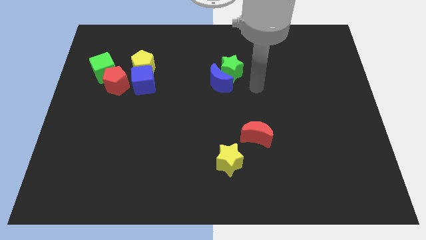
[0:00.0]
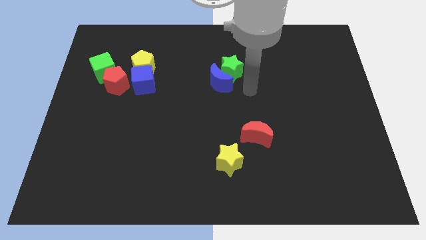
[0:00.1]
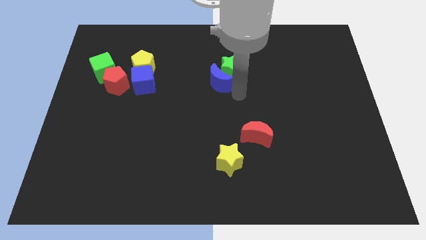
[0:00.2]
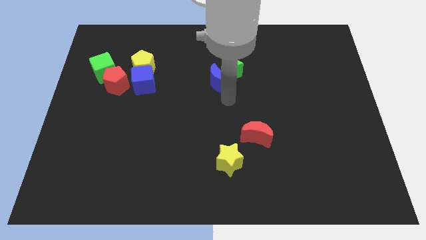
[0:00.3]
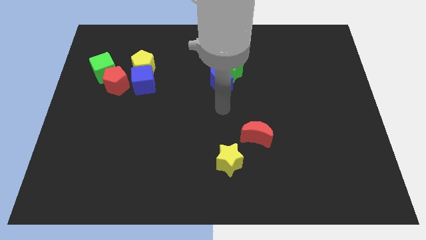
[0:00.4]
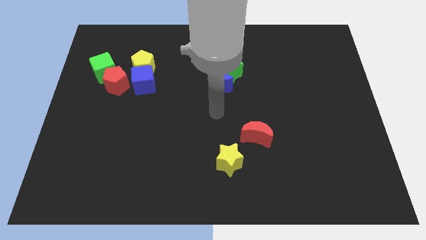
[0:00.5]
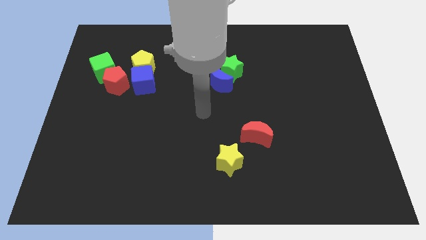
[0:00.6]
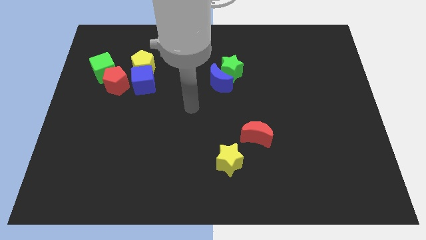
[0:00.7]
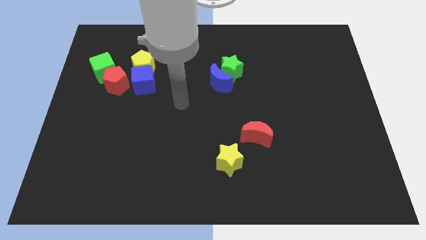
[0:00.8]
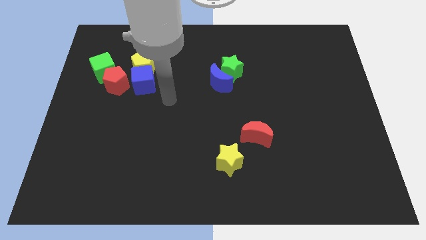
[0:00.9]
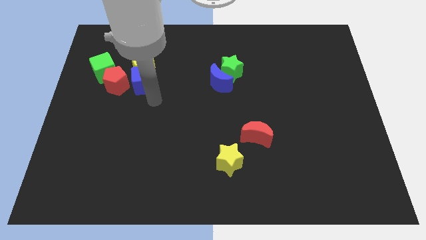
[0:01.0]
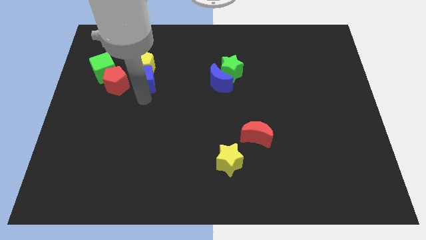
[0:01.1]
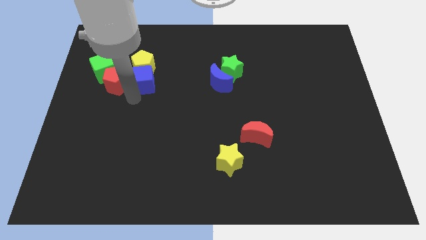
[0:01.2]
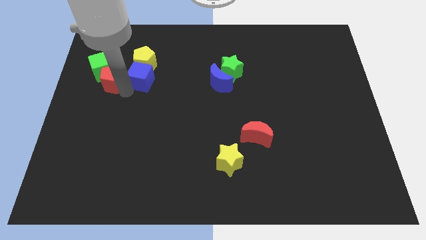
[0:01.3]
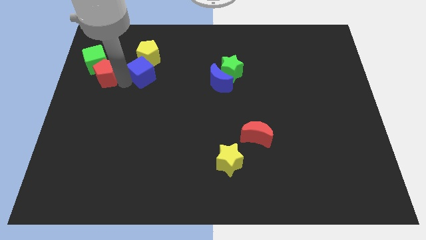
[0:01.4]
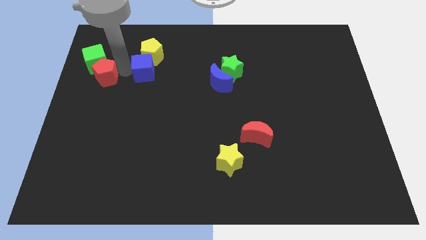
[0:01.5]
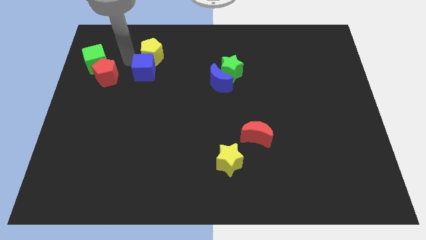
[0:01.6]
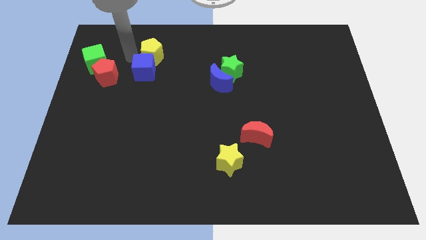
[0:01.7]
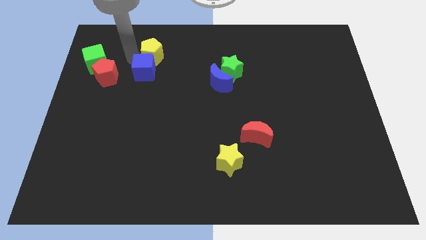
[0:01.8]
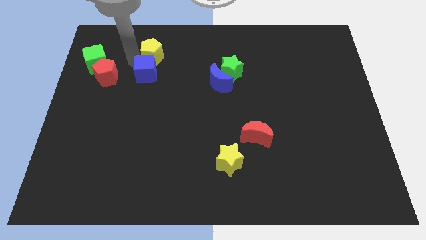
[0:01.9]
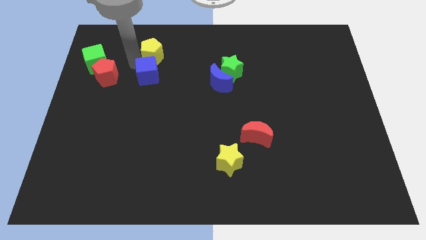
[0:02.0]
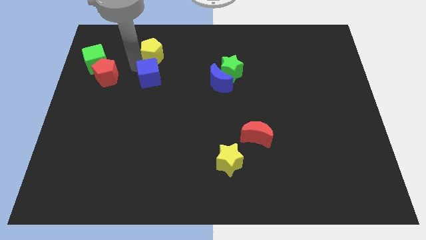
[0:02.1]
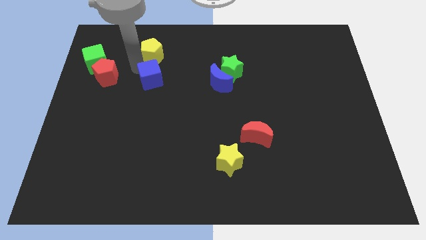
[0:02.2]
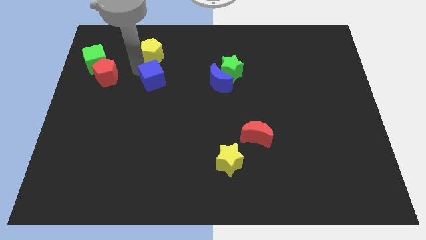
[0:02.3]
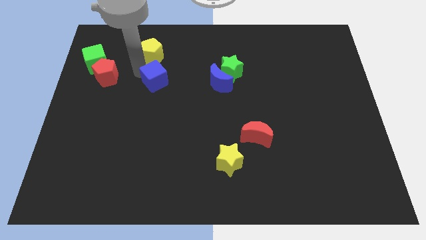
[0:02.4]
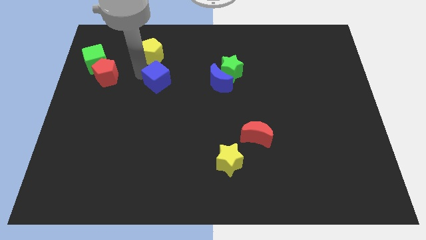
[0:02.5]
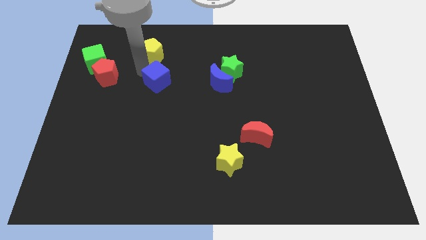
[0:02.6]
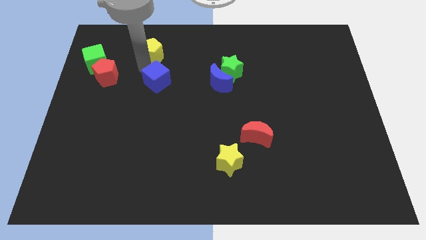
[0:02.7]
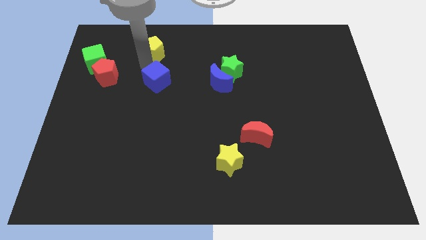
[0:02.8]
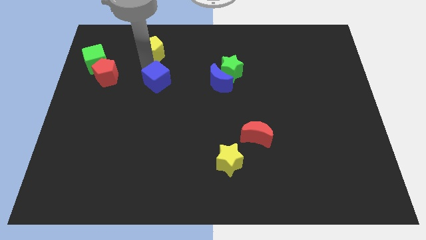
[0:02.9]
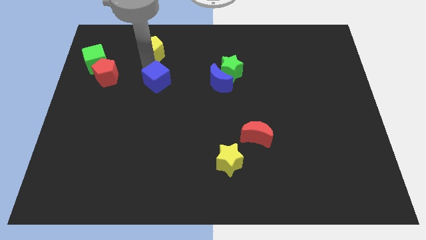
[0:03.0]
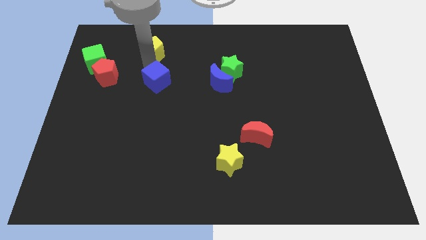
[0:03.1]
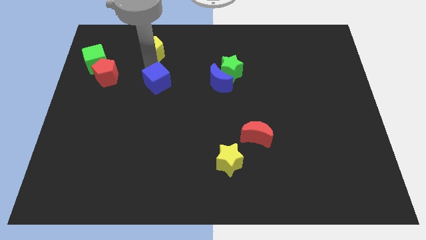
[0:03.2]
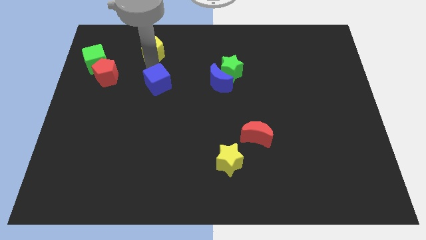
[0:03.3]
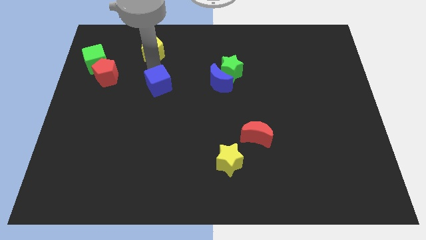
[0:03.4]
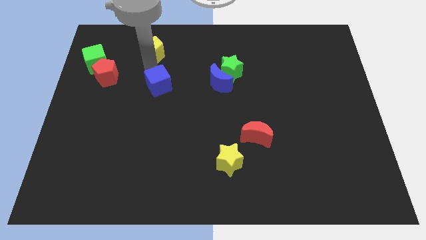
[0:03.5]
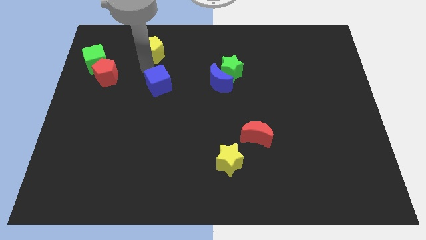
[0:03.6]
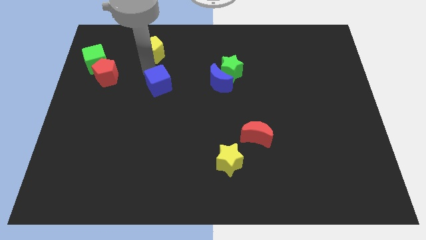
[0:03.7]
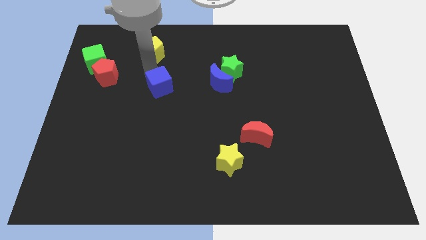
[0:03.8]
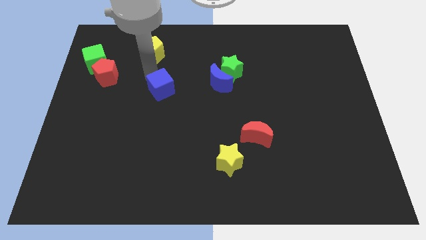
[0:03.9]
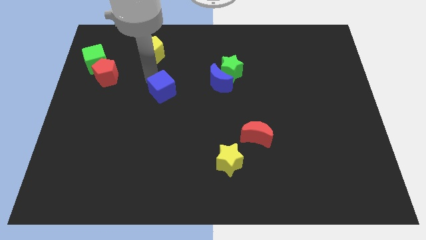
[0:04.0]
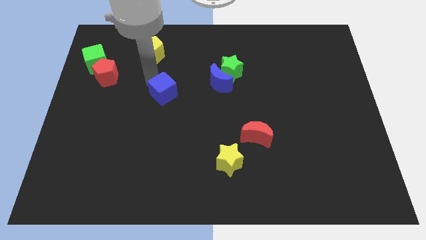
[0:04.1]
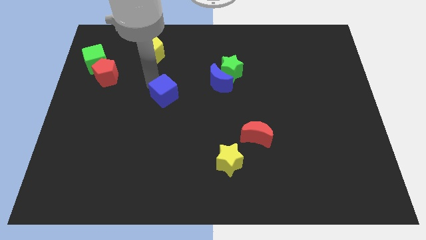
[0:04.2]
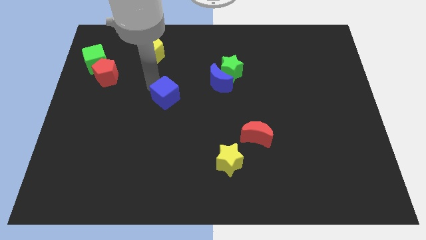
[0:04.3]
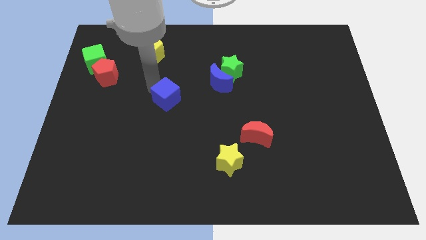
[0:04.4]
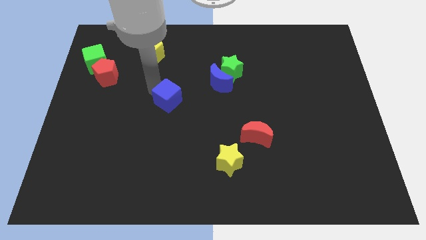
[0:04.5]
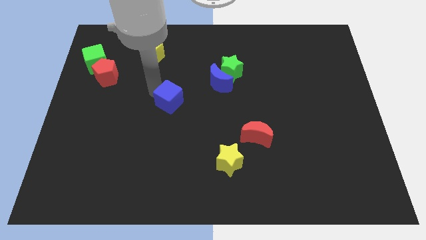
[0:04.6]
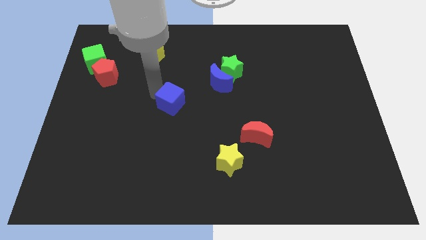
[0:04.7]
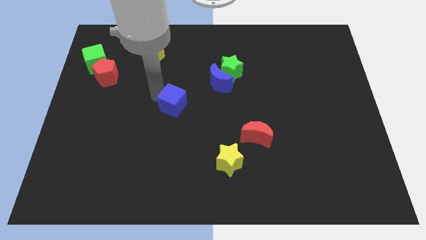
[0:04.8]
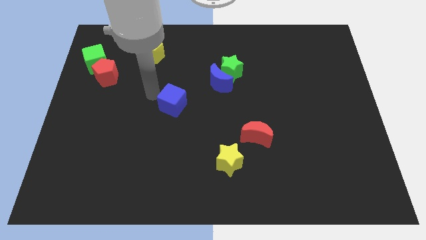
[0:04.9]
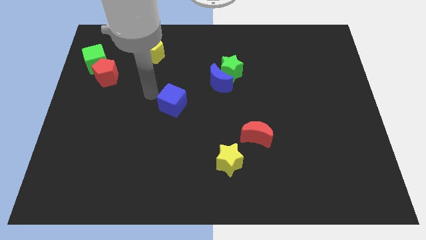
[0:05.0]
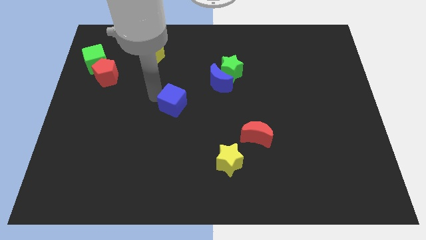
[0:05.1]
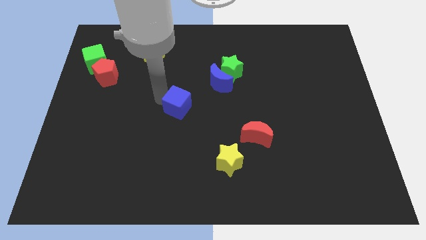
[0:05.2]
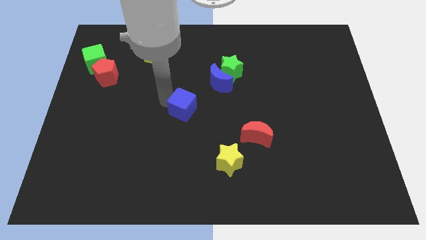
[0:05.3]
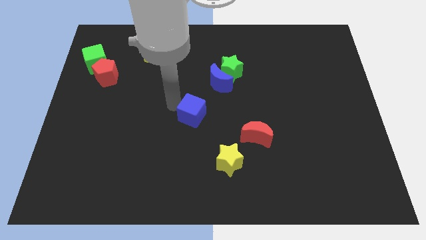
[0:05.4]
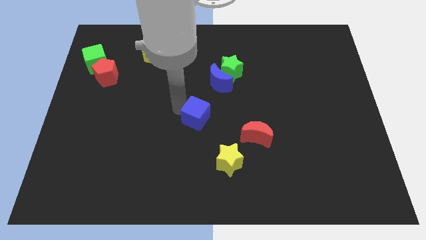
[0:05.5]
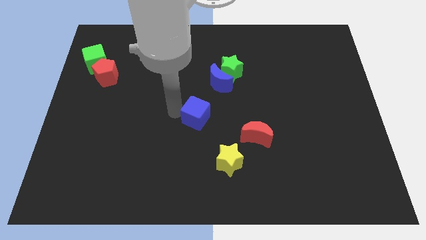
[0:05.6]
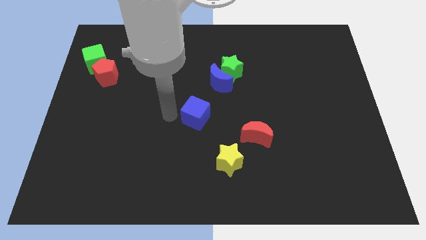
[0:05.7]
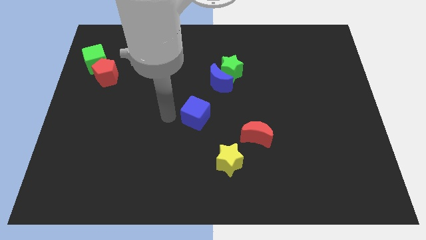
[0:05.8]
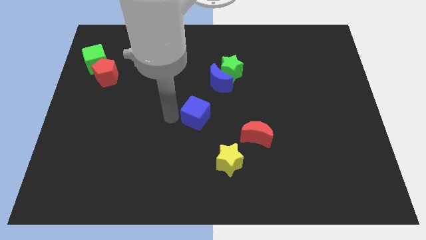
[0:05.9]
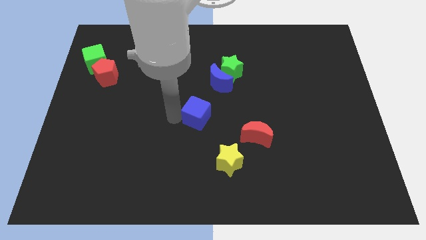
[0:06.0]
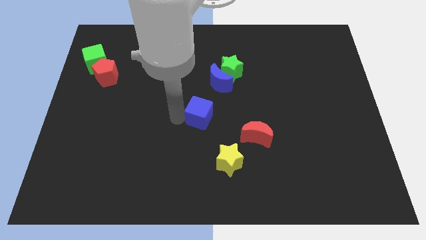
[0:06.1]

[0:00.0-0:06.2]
put the blue cube to the bottom side of the blue moon

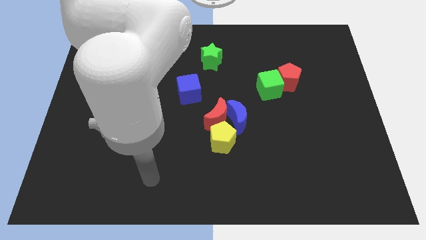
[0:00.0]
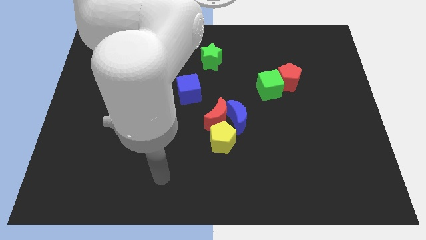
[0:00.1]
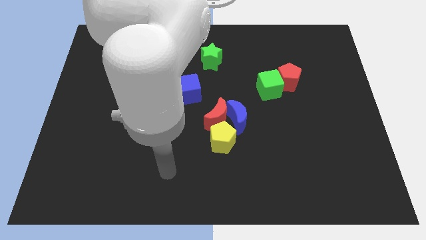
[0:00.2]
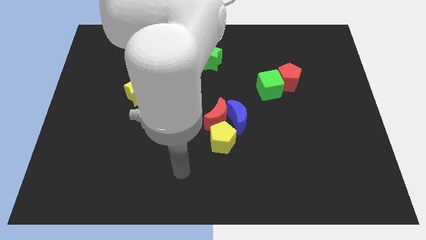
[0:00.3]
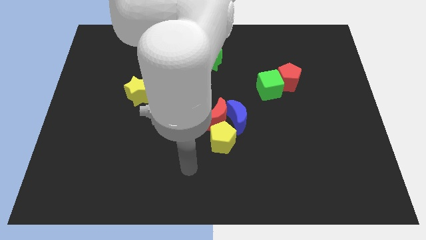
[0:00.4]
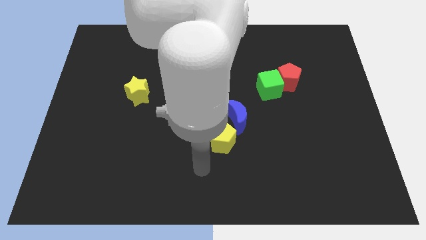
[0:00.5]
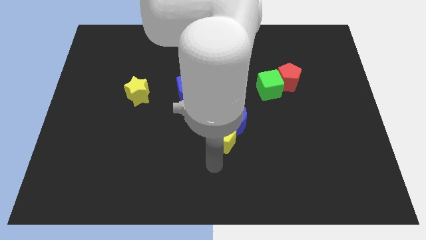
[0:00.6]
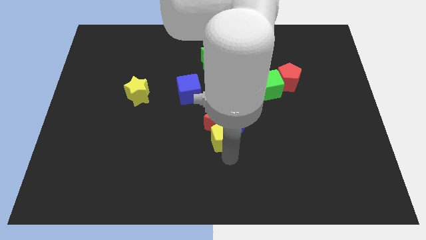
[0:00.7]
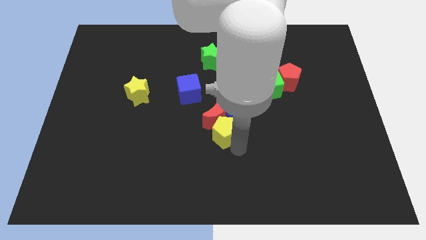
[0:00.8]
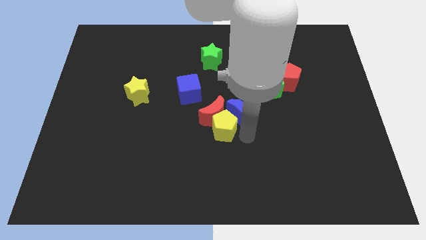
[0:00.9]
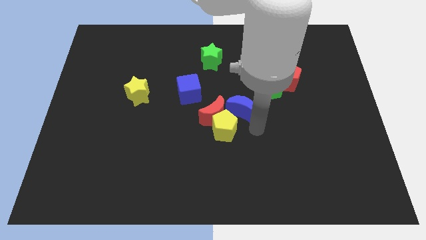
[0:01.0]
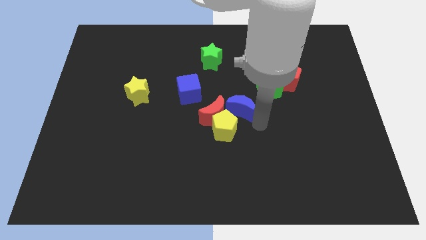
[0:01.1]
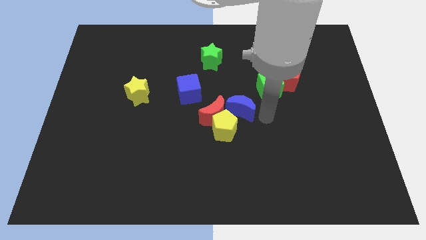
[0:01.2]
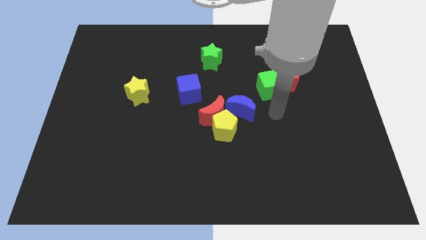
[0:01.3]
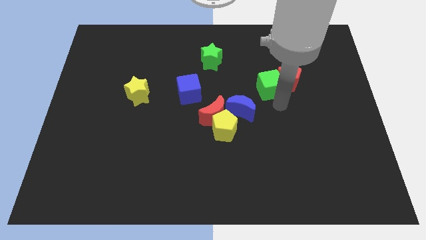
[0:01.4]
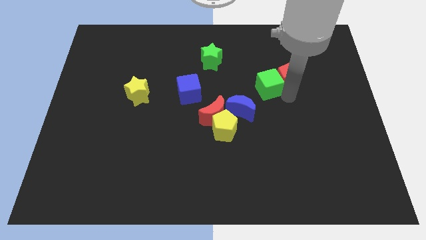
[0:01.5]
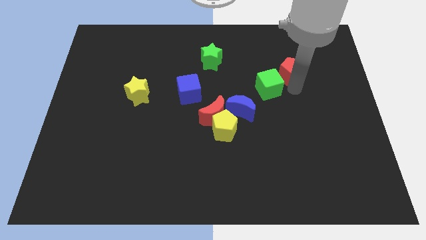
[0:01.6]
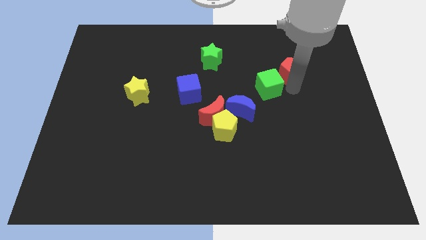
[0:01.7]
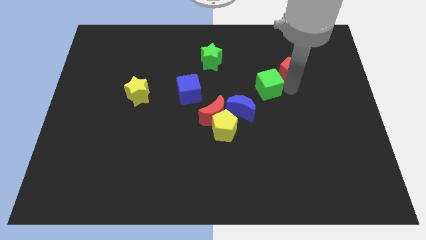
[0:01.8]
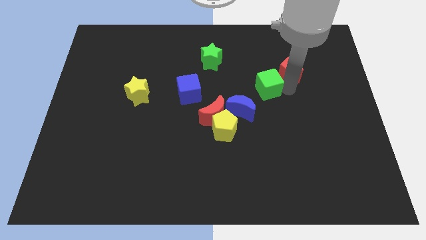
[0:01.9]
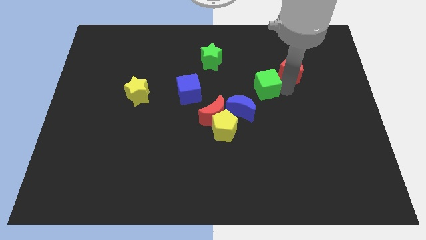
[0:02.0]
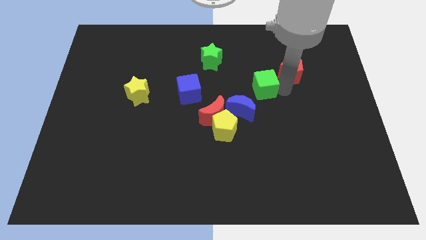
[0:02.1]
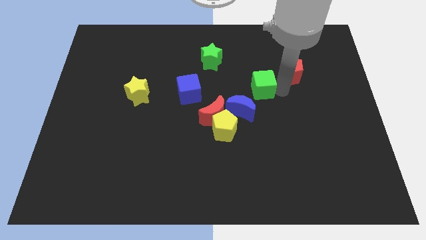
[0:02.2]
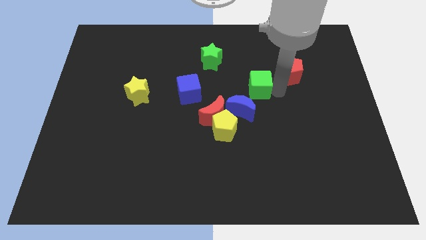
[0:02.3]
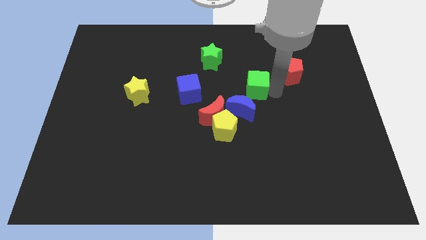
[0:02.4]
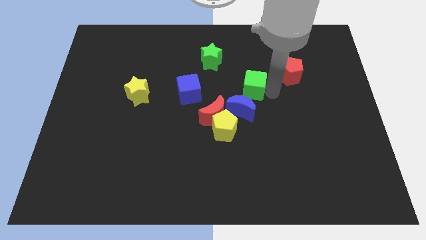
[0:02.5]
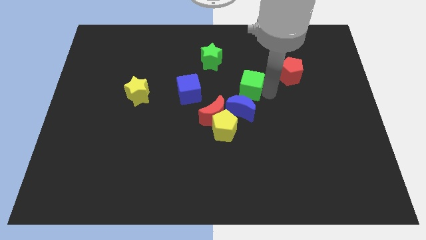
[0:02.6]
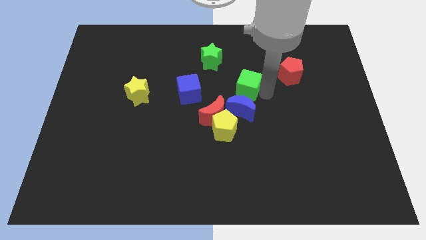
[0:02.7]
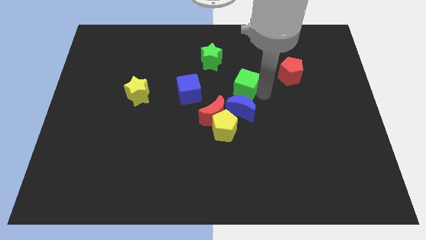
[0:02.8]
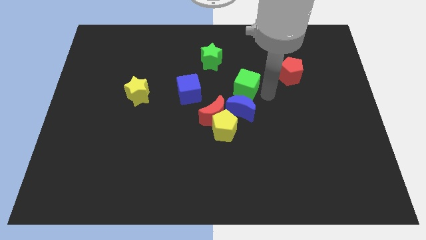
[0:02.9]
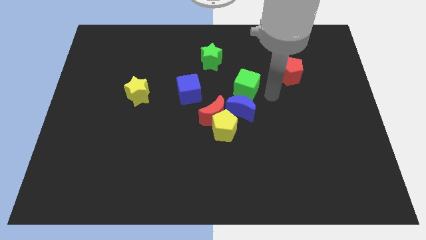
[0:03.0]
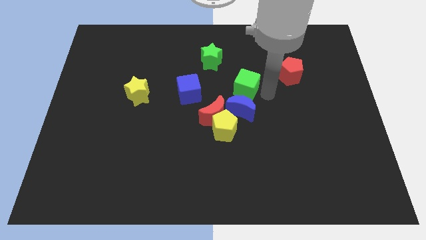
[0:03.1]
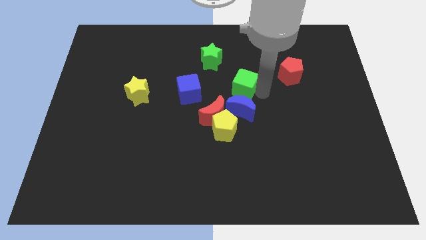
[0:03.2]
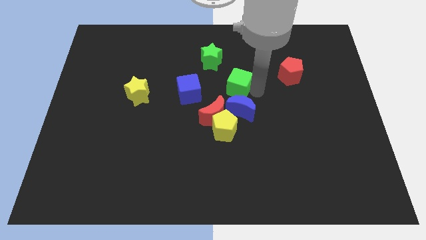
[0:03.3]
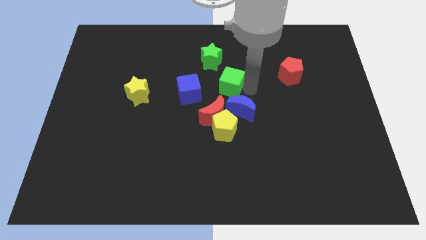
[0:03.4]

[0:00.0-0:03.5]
put the green cube to the top side of the red moon
